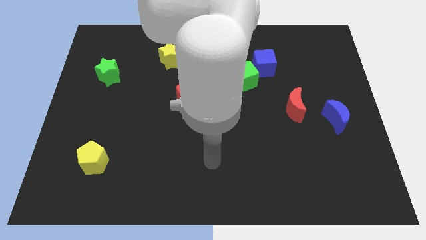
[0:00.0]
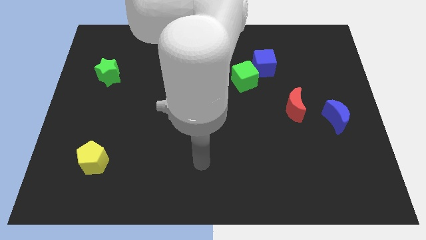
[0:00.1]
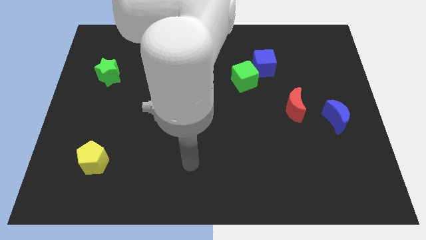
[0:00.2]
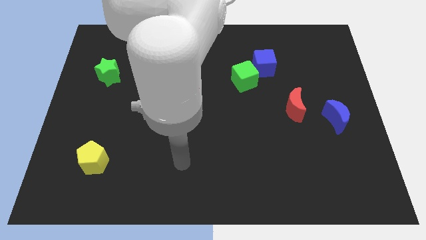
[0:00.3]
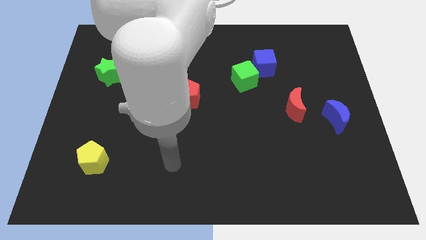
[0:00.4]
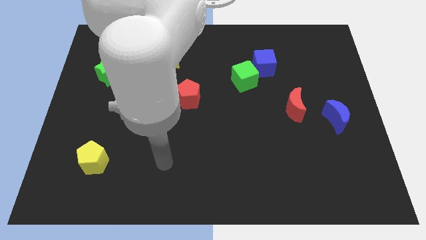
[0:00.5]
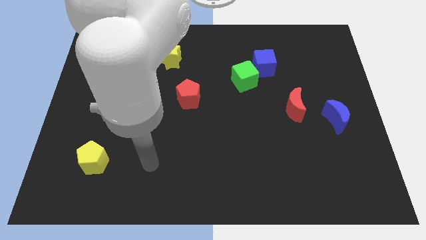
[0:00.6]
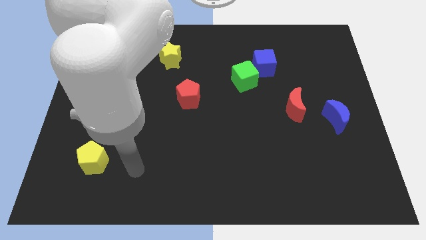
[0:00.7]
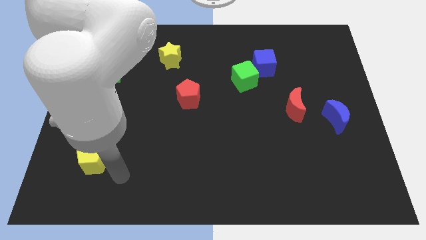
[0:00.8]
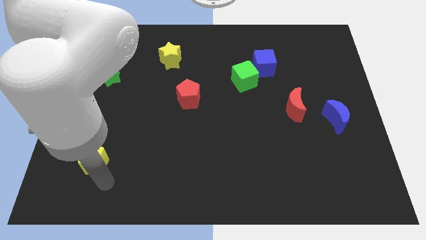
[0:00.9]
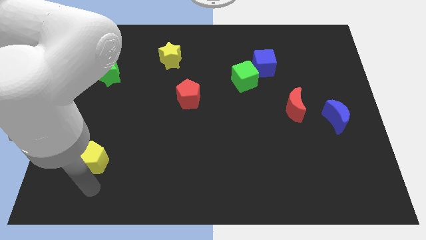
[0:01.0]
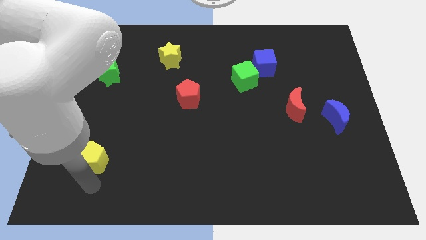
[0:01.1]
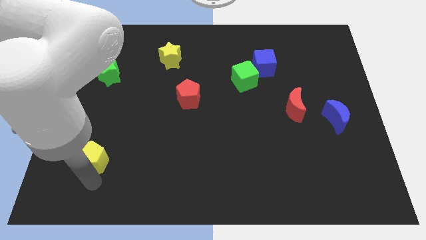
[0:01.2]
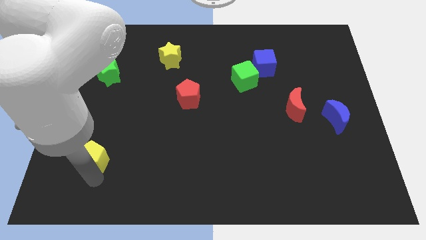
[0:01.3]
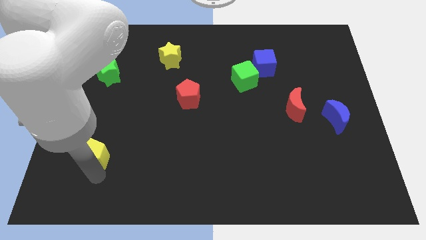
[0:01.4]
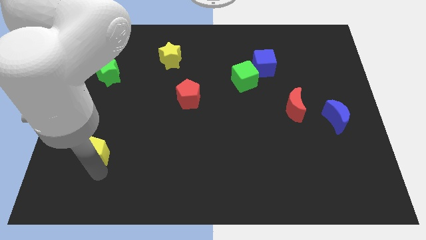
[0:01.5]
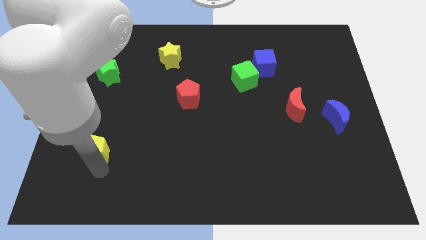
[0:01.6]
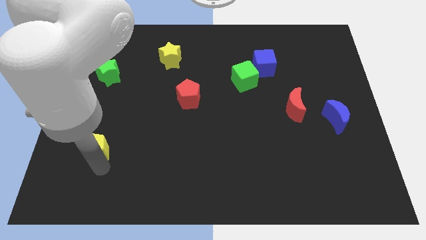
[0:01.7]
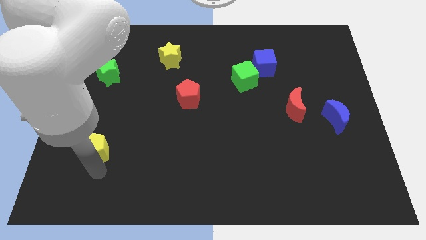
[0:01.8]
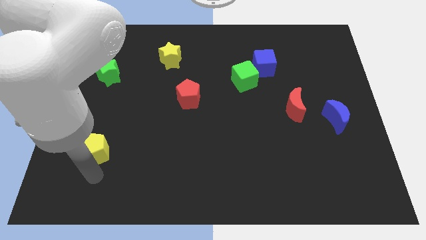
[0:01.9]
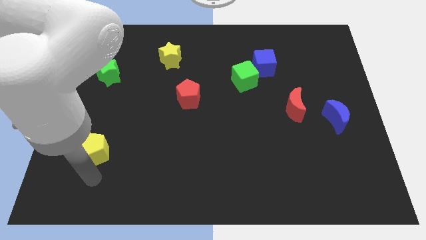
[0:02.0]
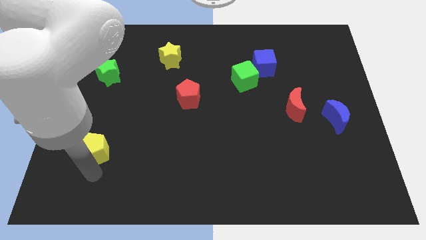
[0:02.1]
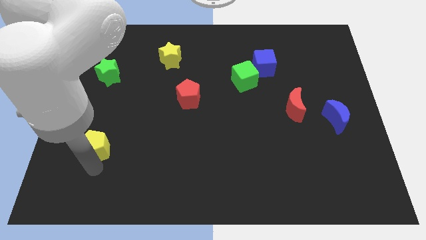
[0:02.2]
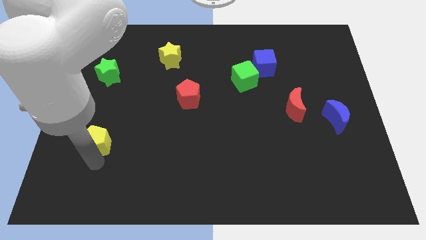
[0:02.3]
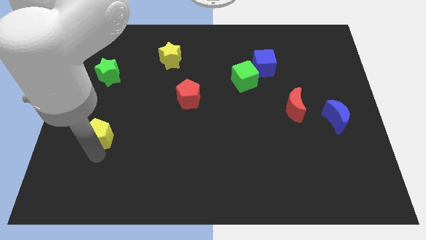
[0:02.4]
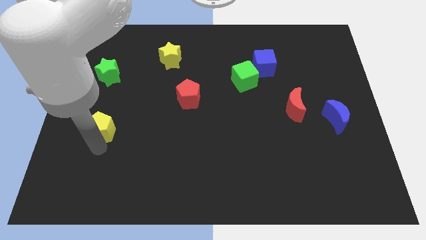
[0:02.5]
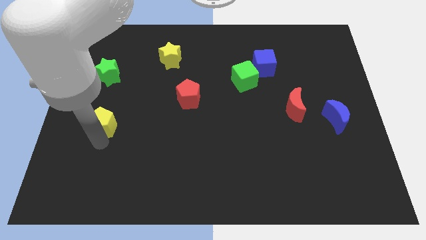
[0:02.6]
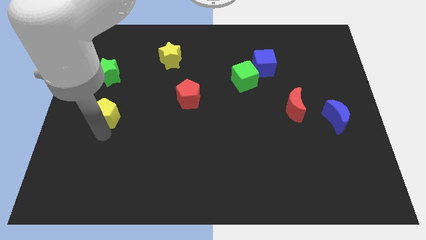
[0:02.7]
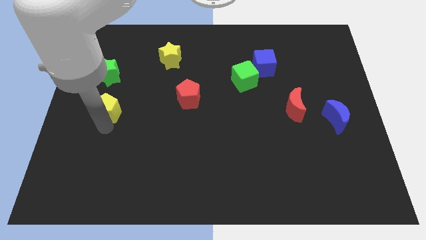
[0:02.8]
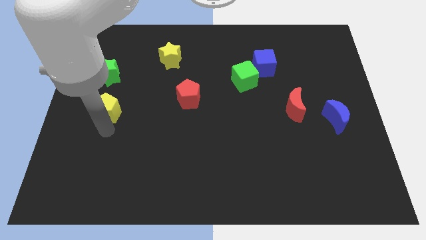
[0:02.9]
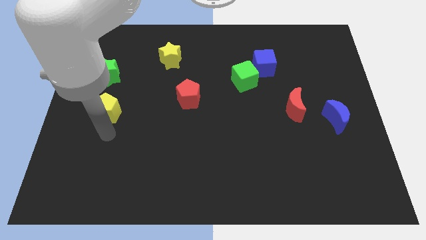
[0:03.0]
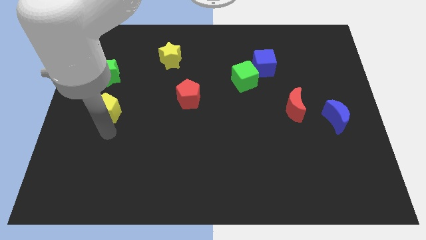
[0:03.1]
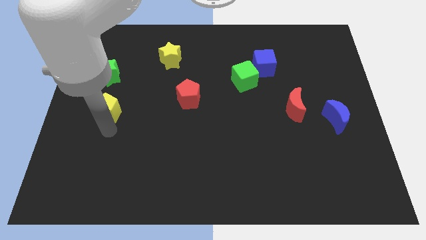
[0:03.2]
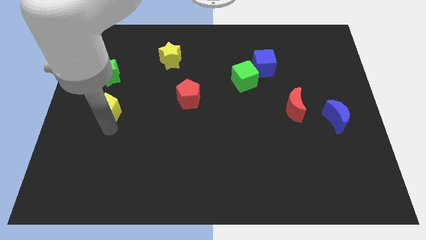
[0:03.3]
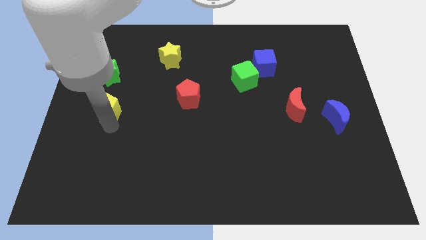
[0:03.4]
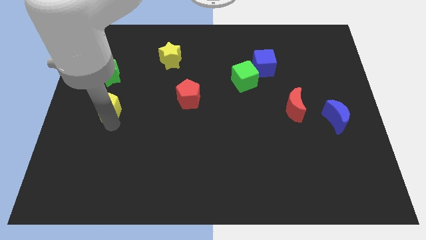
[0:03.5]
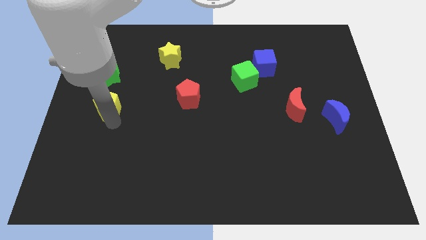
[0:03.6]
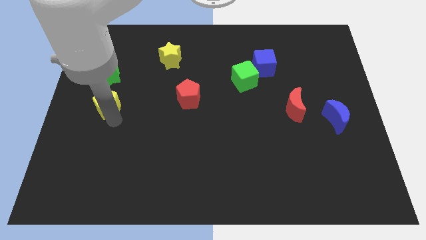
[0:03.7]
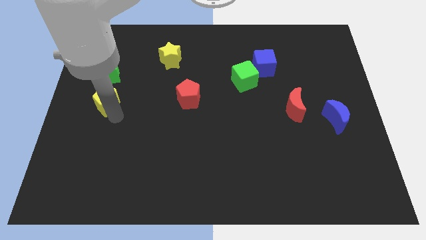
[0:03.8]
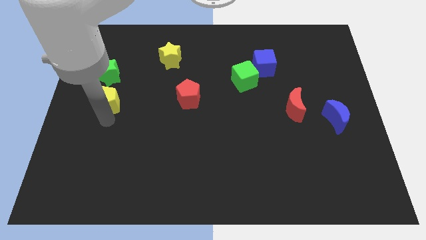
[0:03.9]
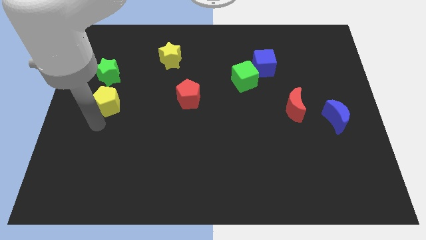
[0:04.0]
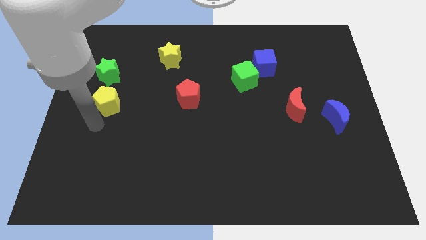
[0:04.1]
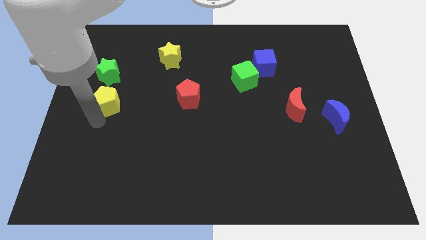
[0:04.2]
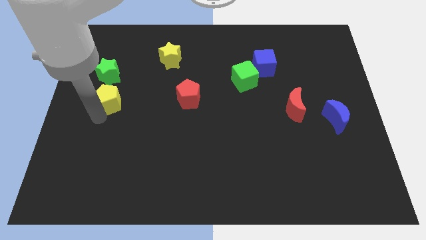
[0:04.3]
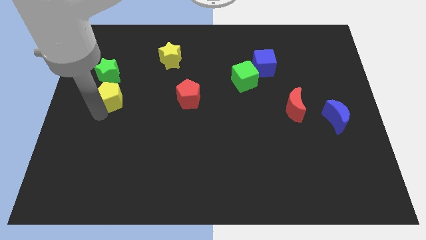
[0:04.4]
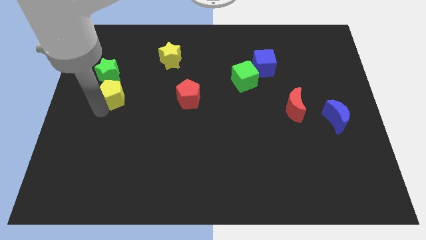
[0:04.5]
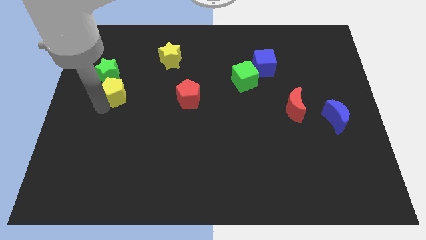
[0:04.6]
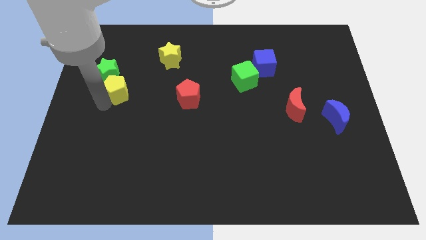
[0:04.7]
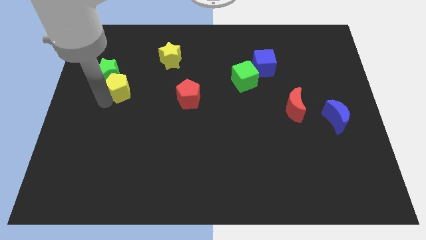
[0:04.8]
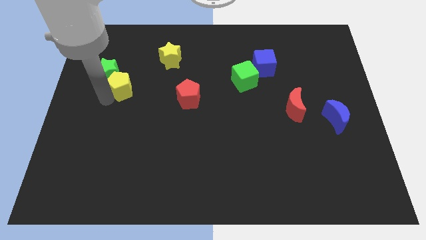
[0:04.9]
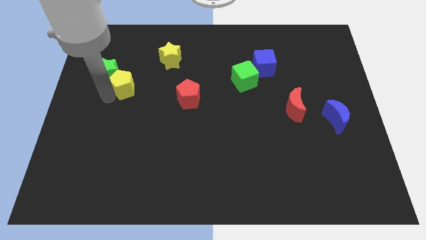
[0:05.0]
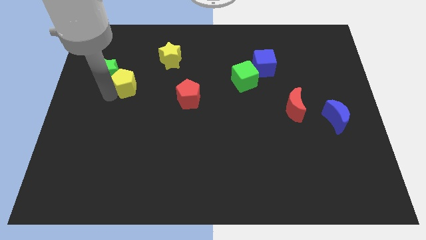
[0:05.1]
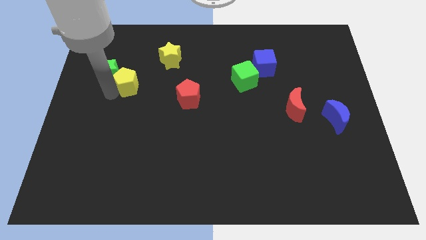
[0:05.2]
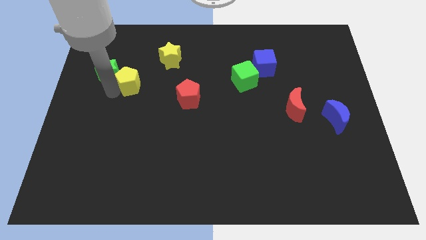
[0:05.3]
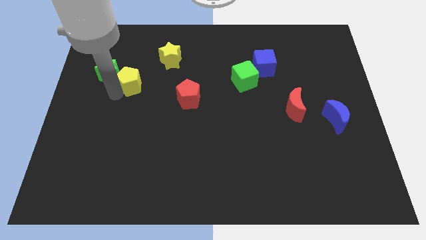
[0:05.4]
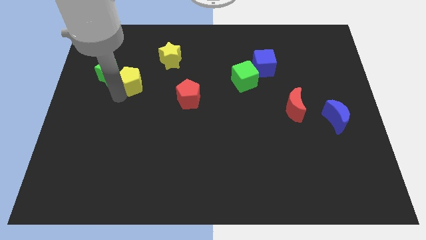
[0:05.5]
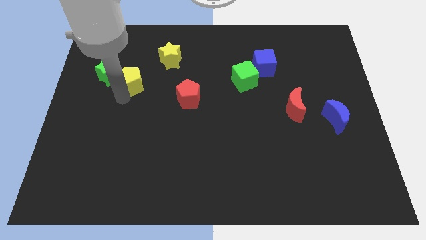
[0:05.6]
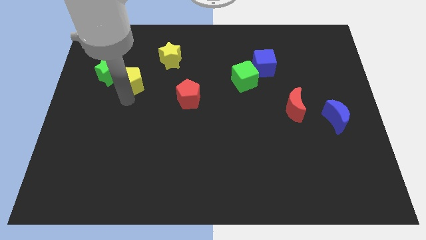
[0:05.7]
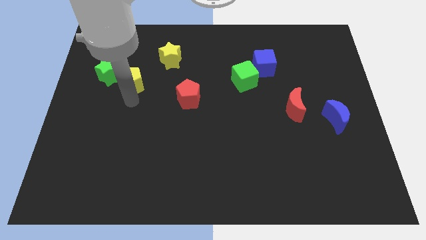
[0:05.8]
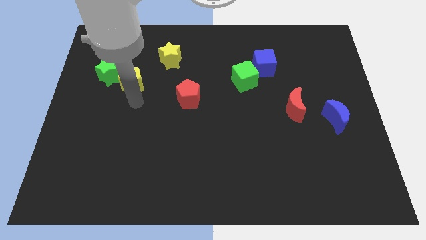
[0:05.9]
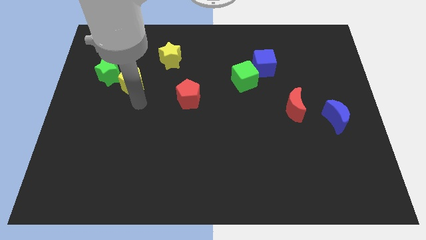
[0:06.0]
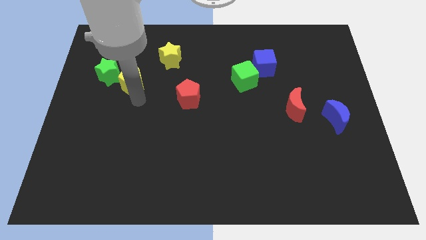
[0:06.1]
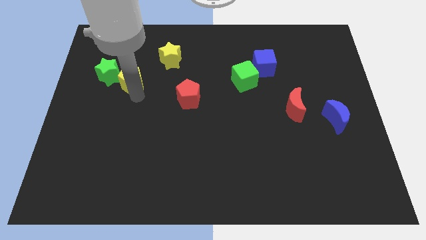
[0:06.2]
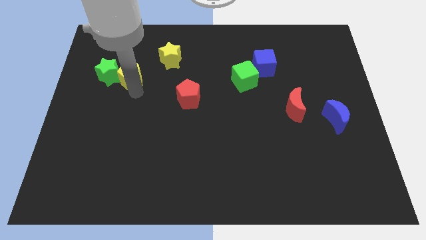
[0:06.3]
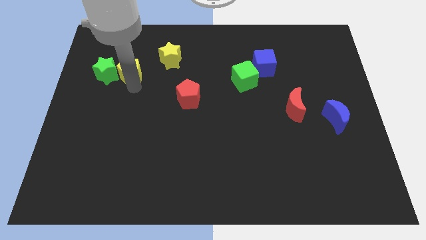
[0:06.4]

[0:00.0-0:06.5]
put the yellow pentagon to the left side of the yellow star

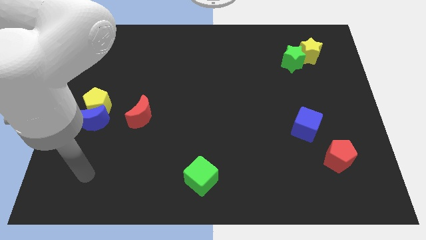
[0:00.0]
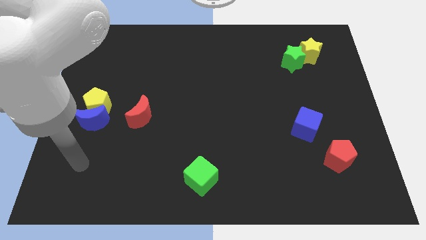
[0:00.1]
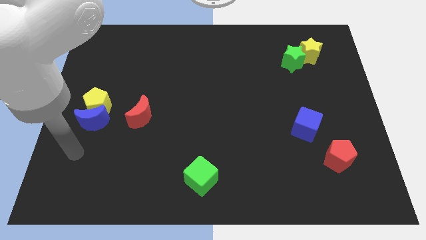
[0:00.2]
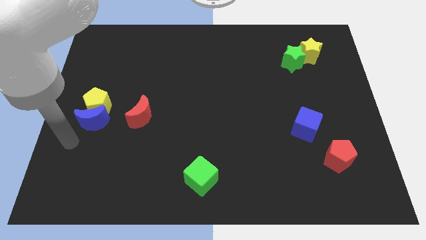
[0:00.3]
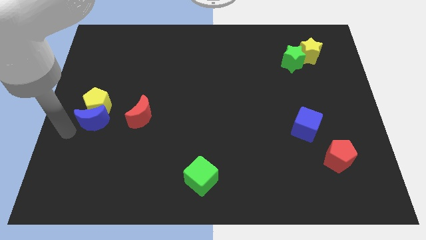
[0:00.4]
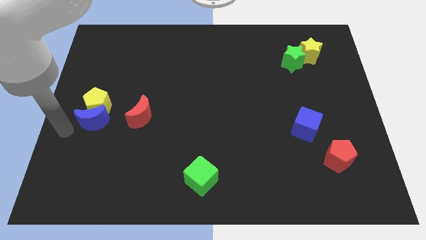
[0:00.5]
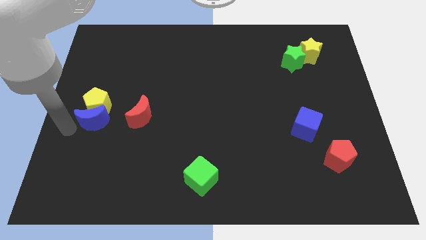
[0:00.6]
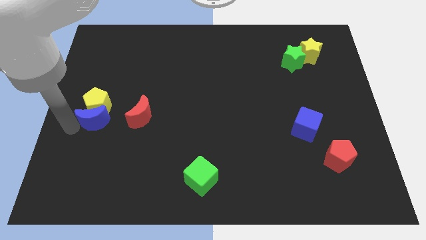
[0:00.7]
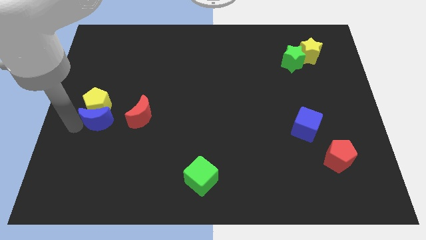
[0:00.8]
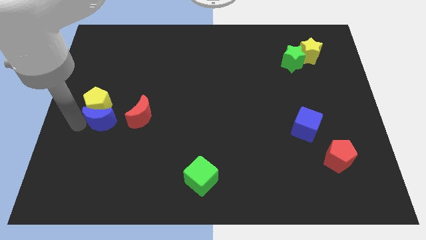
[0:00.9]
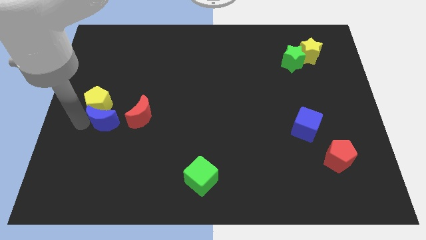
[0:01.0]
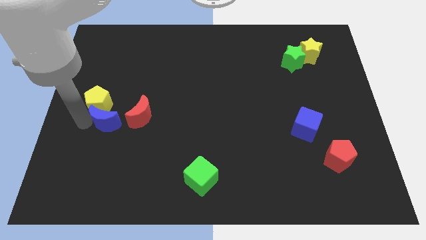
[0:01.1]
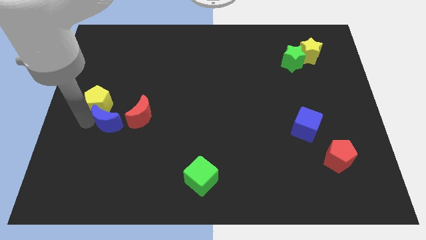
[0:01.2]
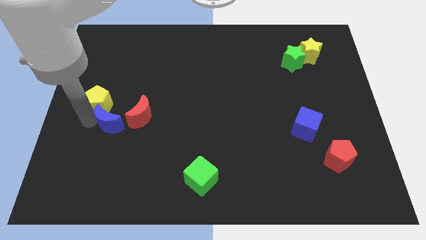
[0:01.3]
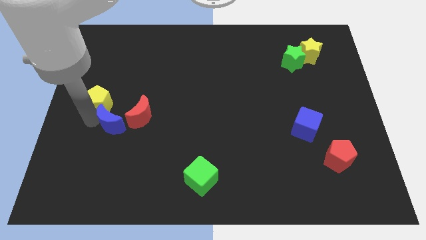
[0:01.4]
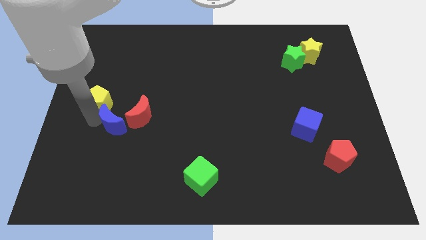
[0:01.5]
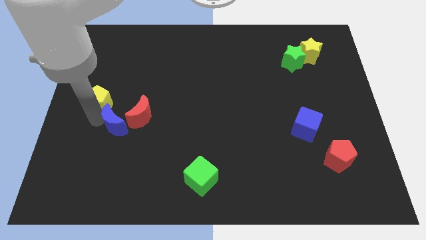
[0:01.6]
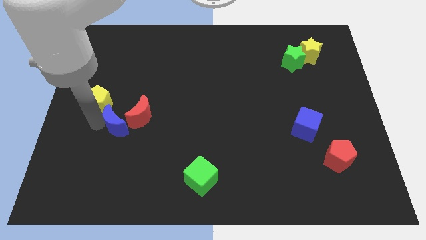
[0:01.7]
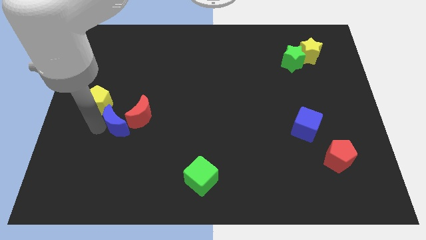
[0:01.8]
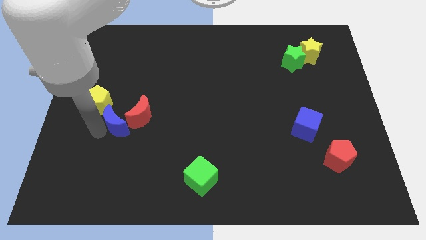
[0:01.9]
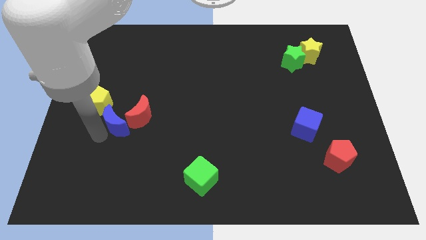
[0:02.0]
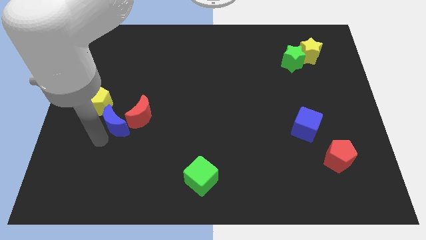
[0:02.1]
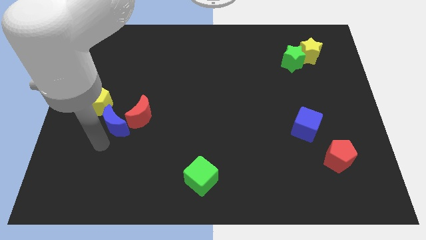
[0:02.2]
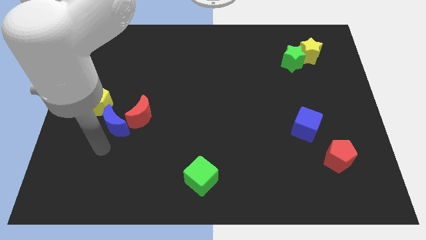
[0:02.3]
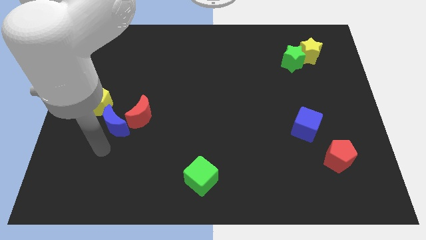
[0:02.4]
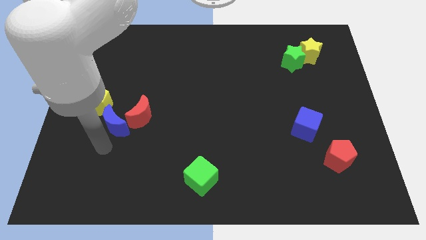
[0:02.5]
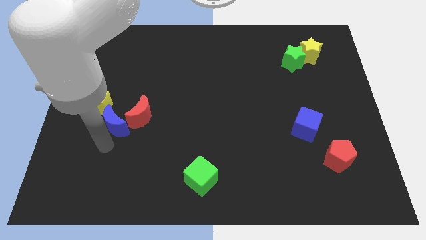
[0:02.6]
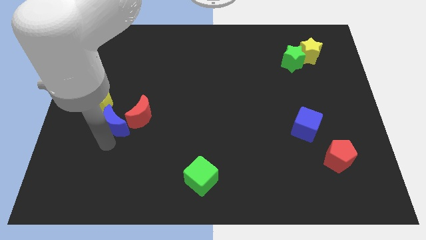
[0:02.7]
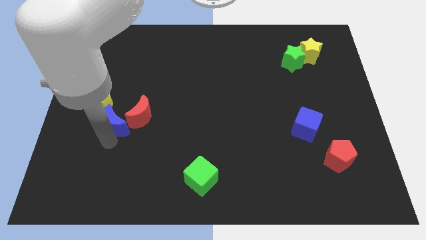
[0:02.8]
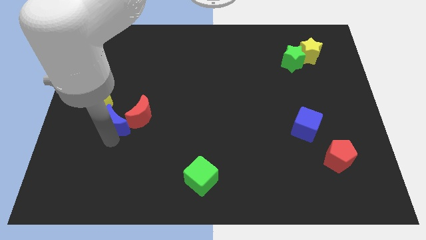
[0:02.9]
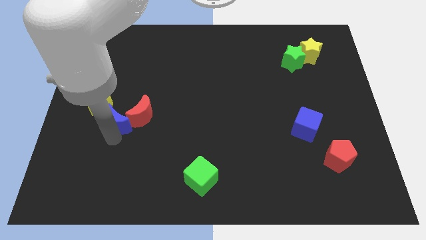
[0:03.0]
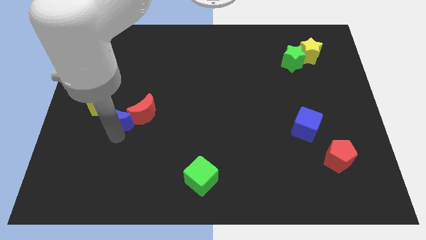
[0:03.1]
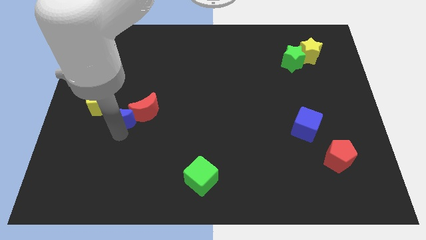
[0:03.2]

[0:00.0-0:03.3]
put the blue moon to the right side of the yellow pentagon
